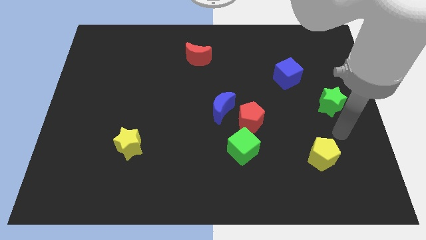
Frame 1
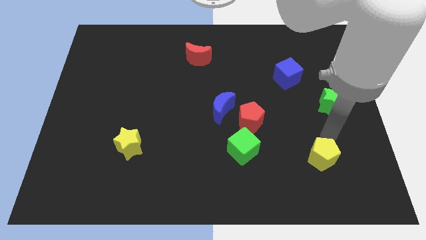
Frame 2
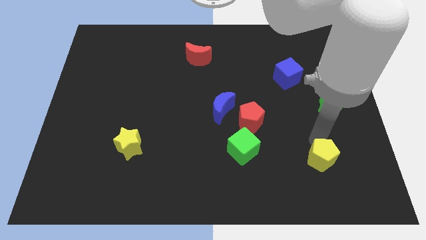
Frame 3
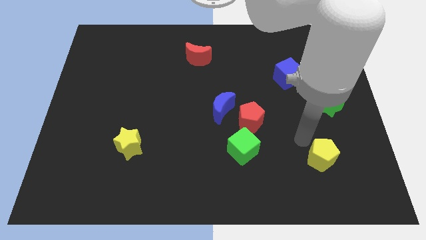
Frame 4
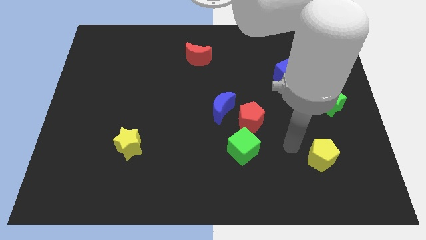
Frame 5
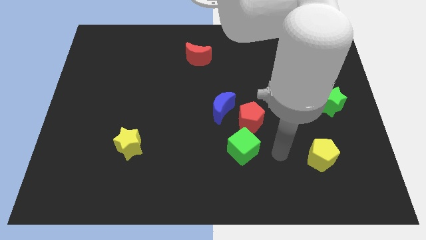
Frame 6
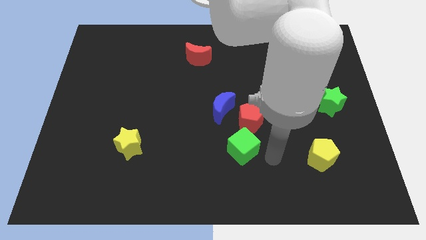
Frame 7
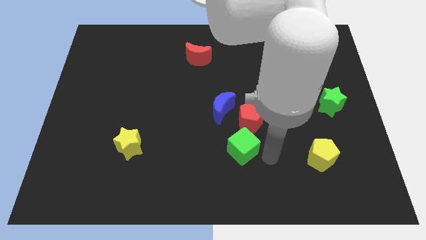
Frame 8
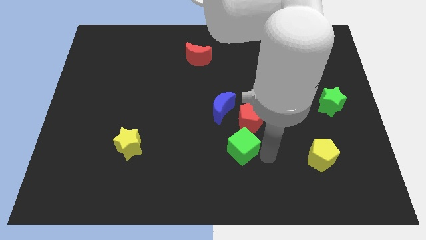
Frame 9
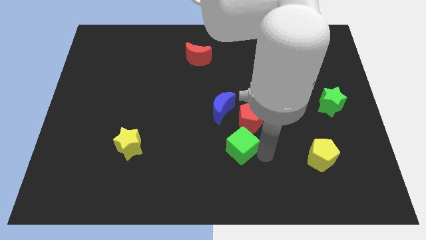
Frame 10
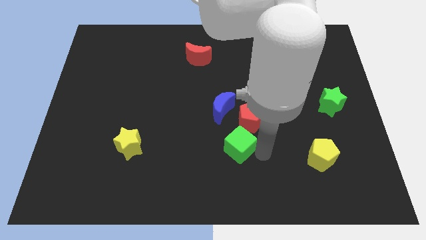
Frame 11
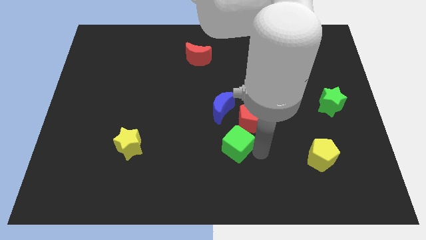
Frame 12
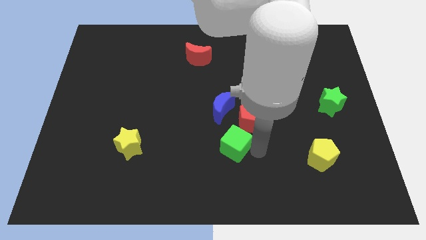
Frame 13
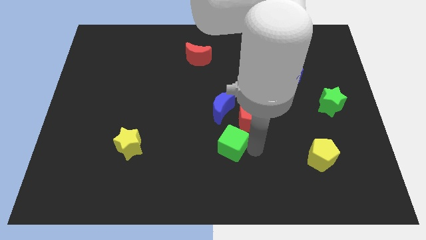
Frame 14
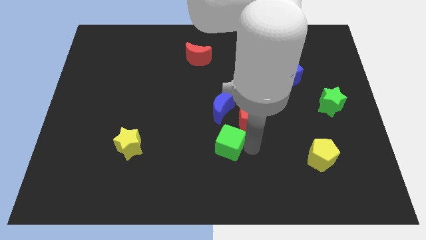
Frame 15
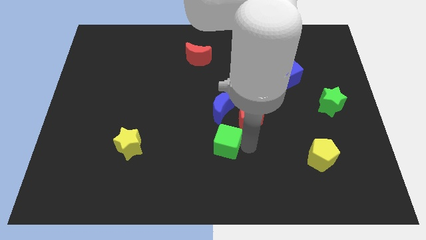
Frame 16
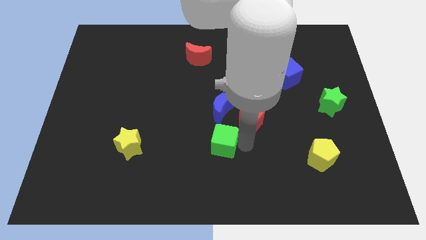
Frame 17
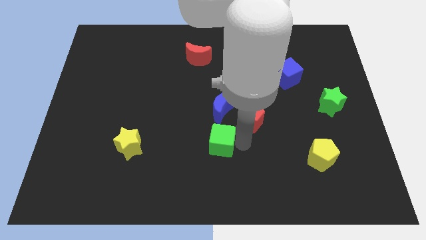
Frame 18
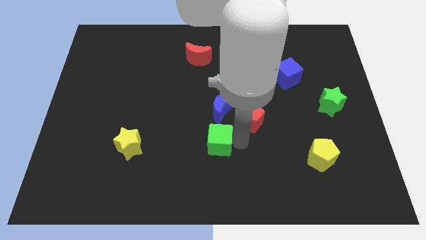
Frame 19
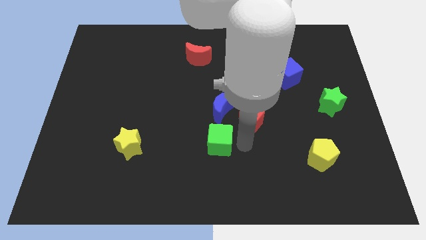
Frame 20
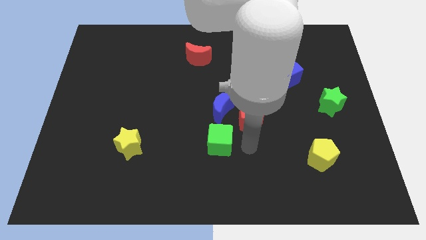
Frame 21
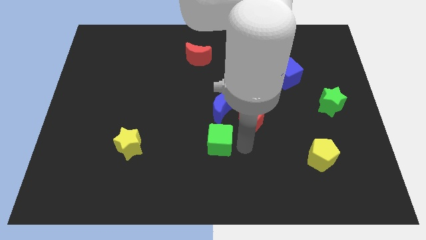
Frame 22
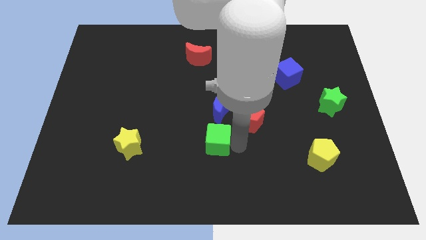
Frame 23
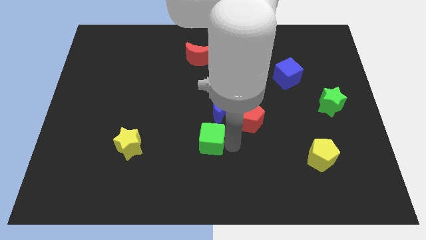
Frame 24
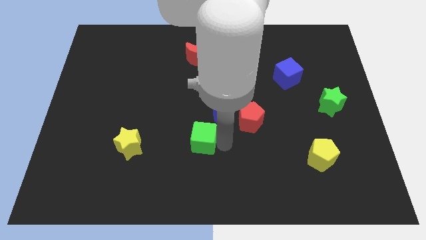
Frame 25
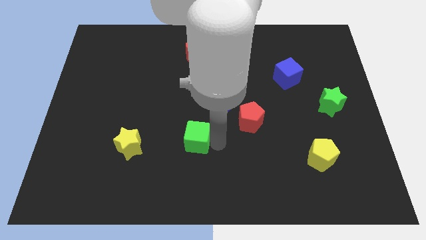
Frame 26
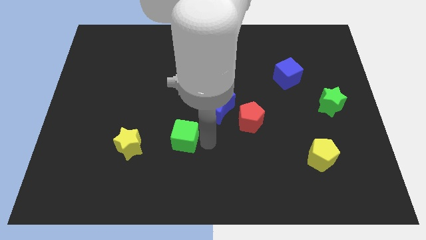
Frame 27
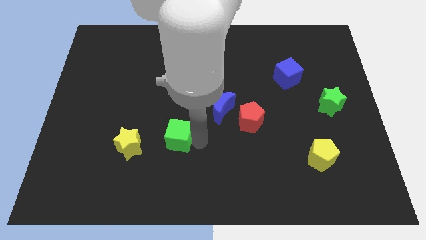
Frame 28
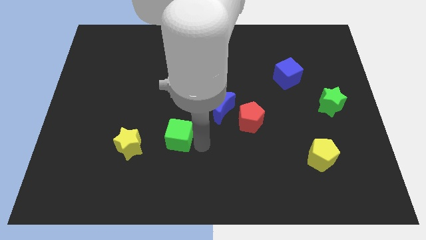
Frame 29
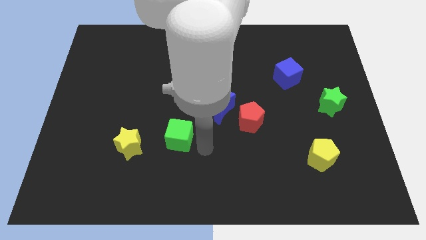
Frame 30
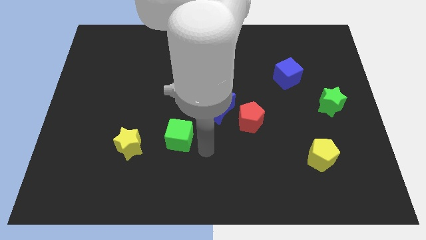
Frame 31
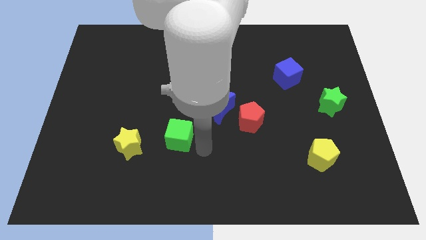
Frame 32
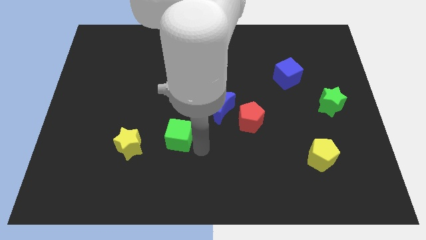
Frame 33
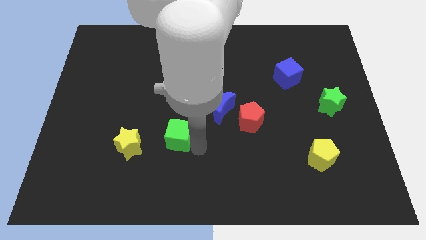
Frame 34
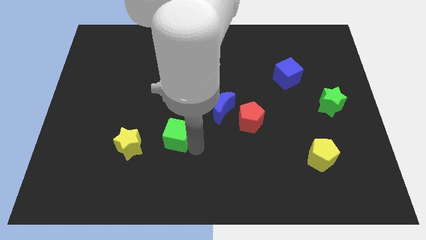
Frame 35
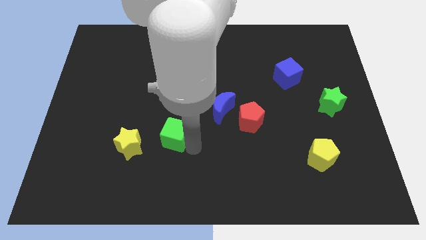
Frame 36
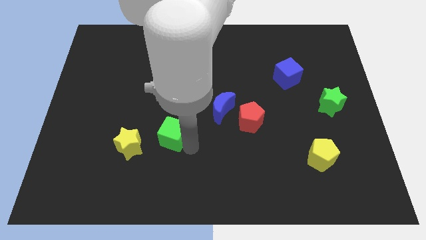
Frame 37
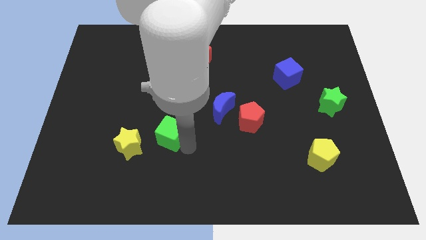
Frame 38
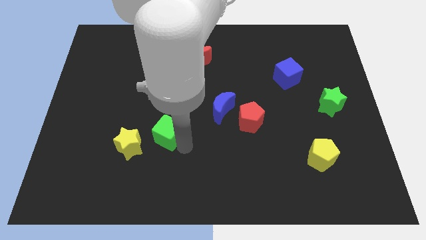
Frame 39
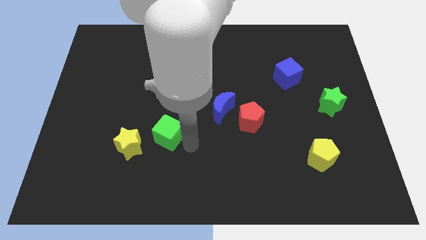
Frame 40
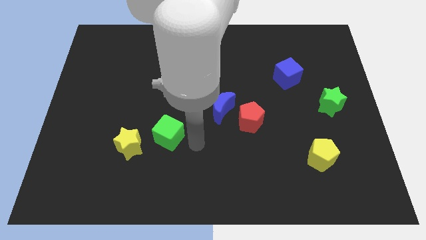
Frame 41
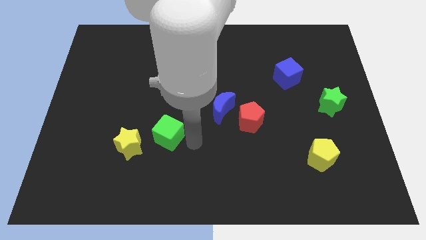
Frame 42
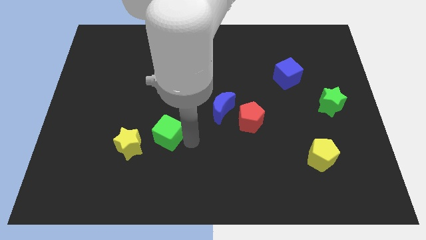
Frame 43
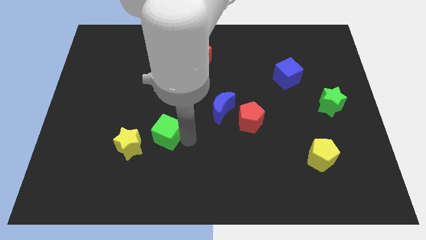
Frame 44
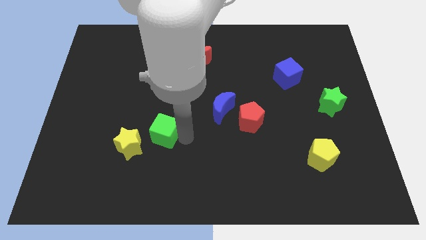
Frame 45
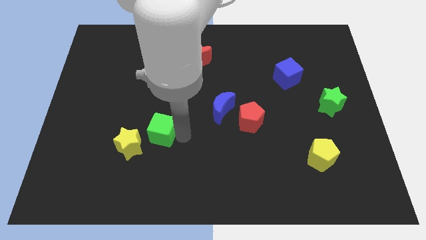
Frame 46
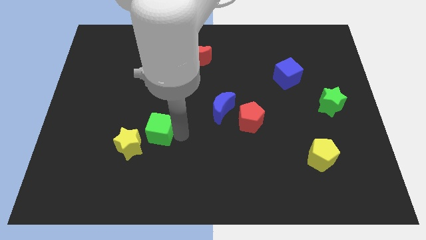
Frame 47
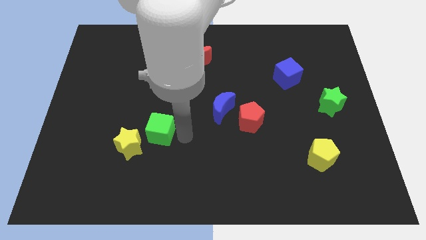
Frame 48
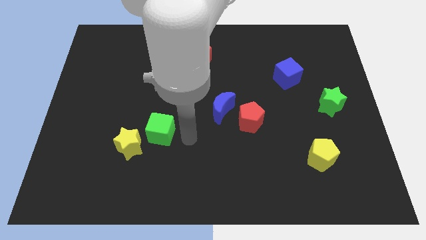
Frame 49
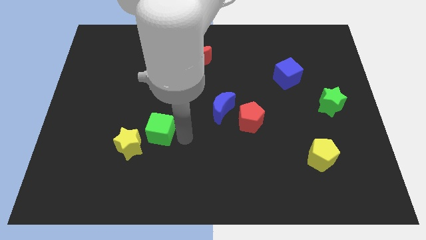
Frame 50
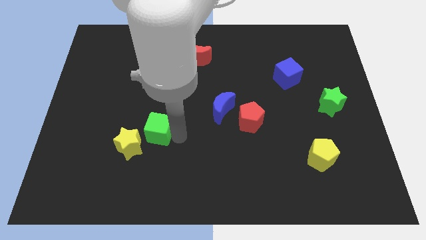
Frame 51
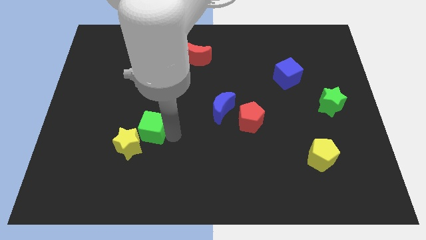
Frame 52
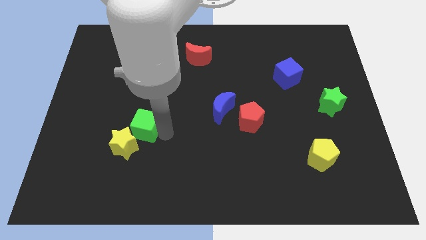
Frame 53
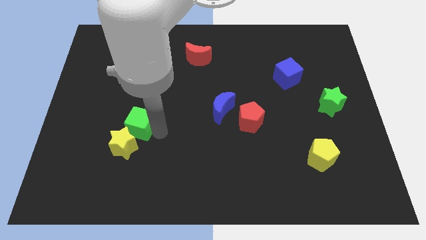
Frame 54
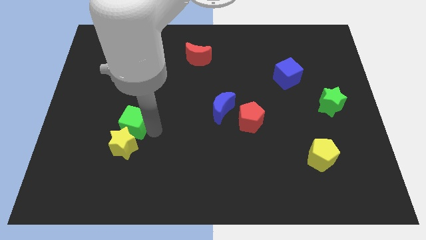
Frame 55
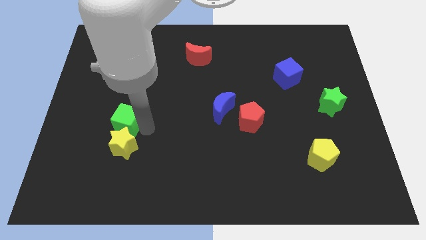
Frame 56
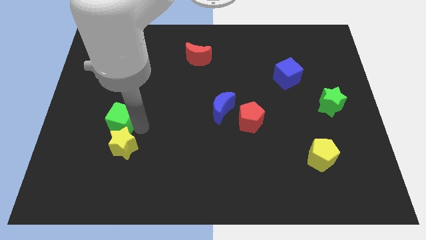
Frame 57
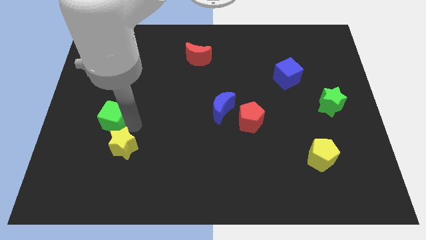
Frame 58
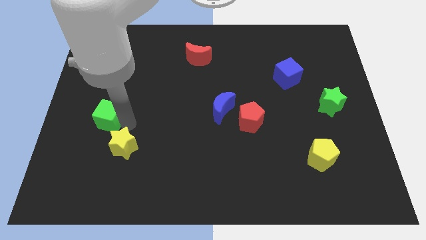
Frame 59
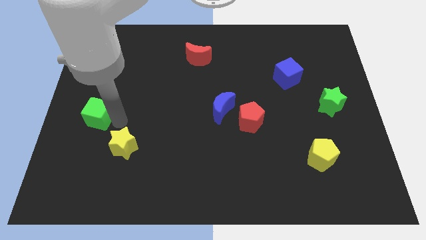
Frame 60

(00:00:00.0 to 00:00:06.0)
push the green cube to the center left

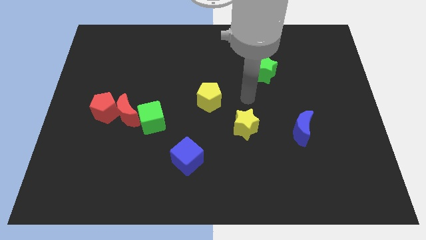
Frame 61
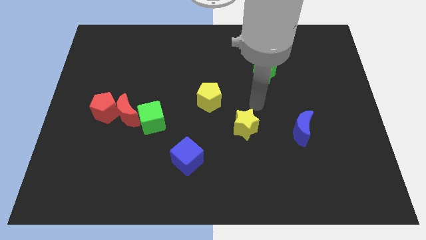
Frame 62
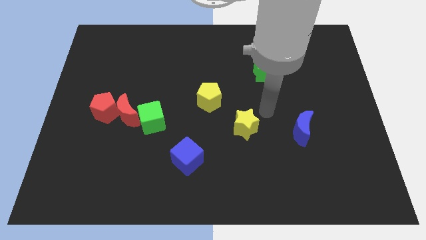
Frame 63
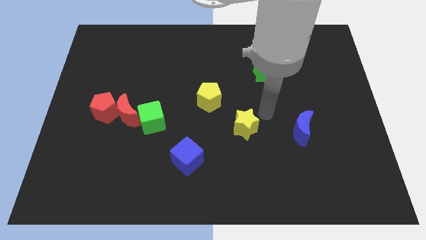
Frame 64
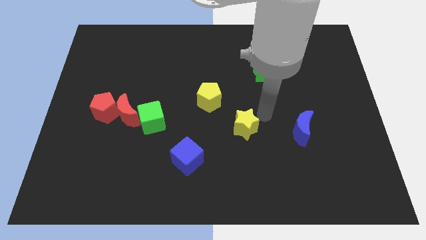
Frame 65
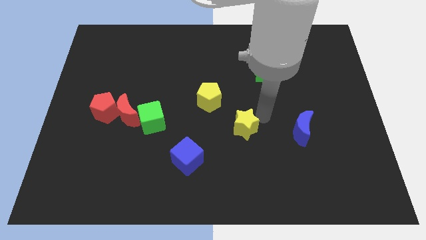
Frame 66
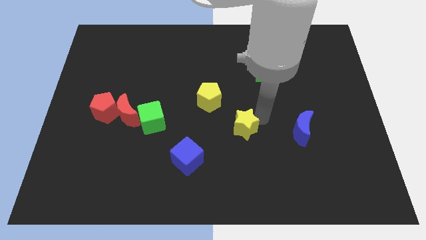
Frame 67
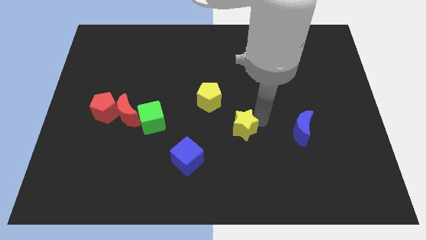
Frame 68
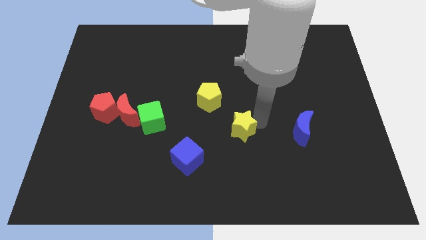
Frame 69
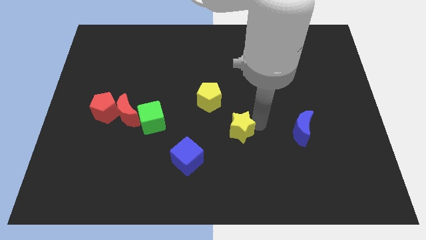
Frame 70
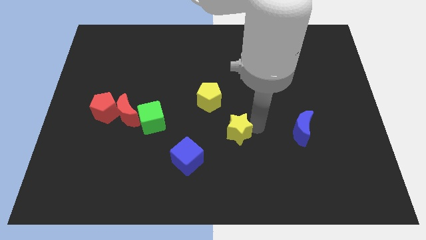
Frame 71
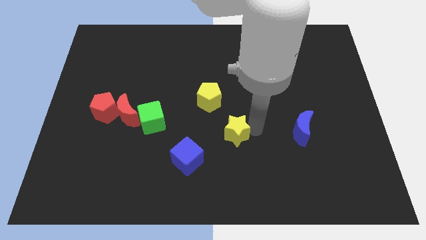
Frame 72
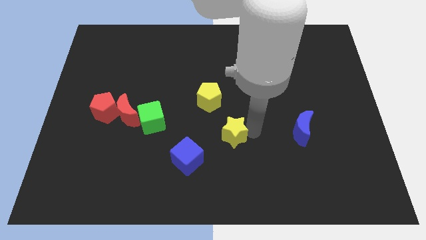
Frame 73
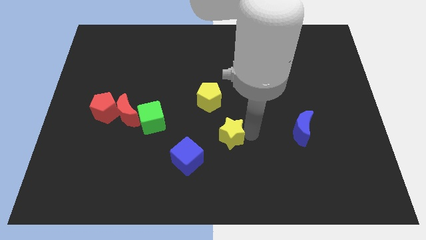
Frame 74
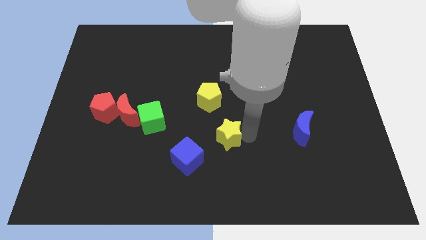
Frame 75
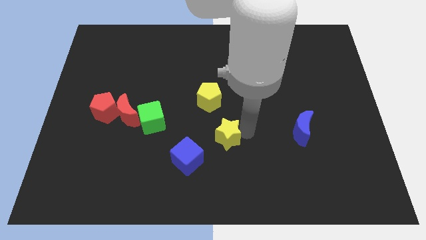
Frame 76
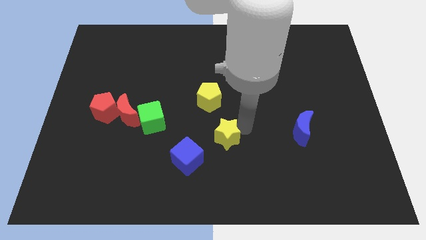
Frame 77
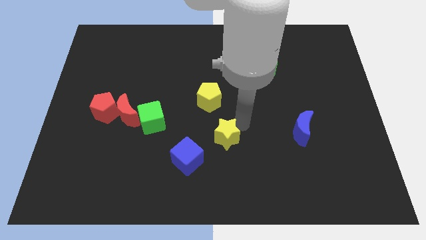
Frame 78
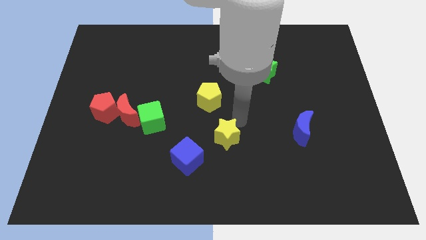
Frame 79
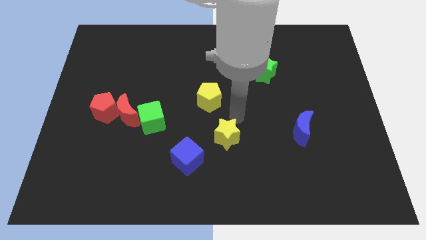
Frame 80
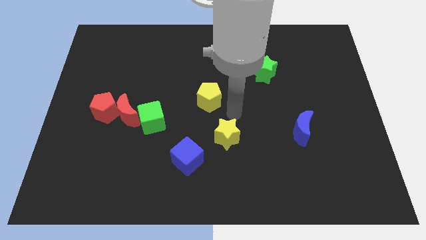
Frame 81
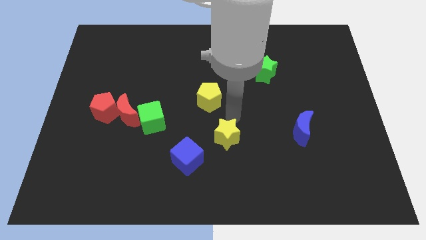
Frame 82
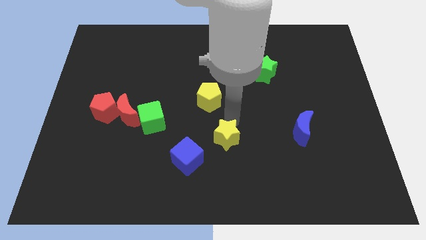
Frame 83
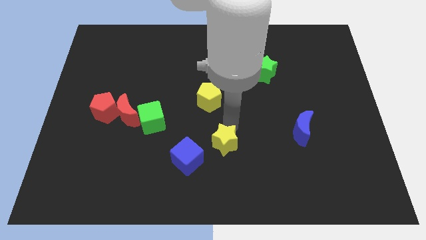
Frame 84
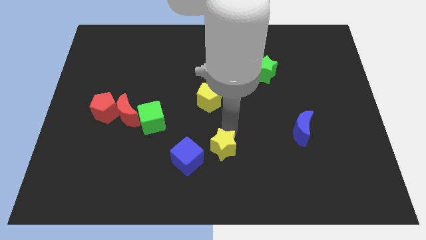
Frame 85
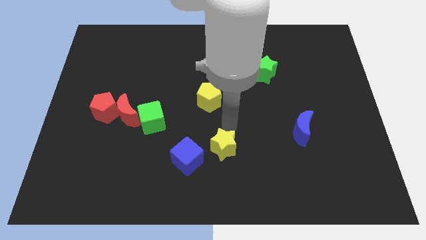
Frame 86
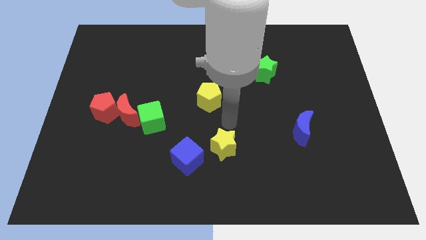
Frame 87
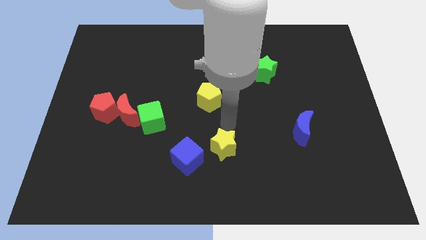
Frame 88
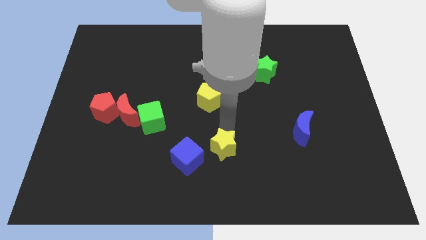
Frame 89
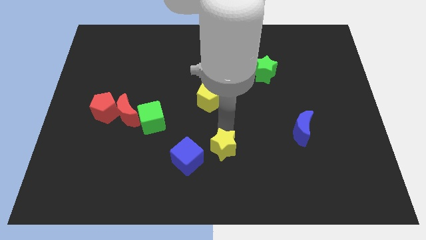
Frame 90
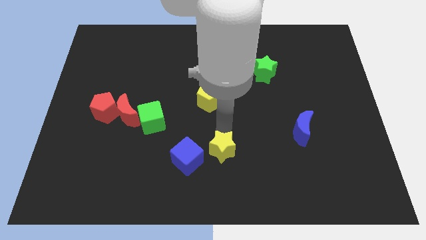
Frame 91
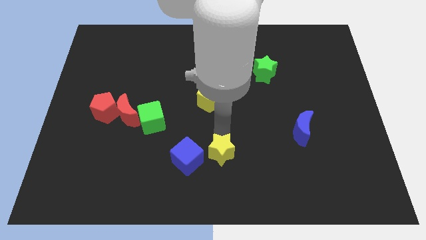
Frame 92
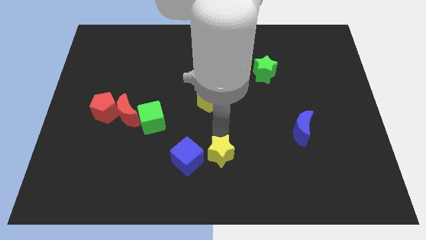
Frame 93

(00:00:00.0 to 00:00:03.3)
put the yellow star to the bottom
